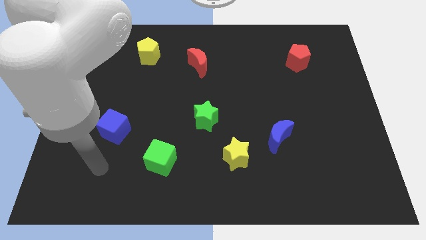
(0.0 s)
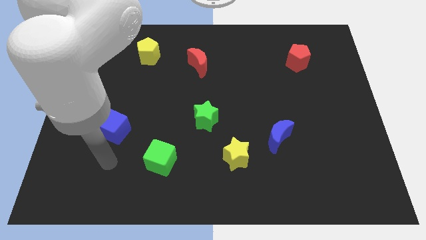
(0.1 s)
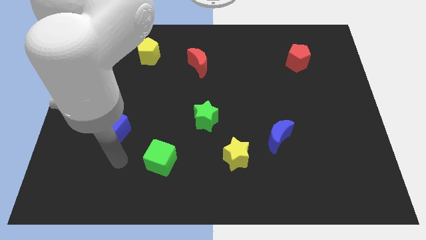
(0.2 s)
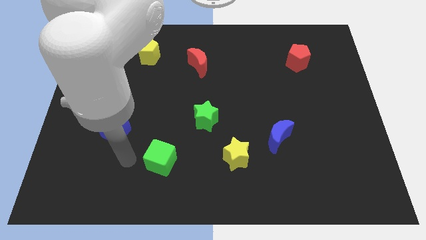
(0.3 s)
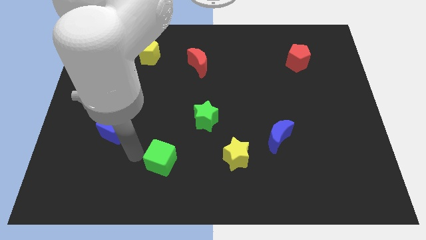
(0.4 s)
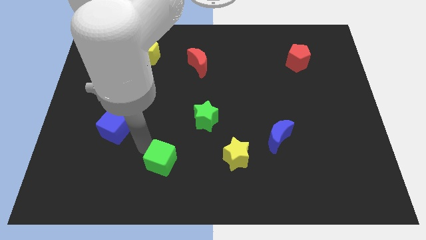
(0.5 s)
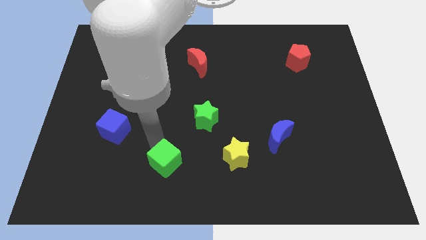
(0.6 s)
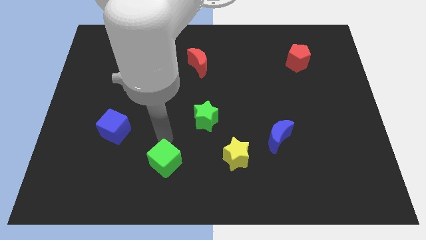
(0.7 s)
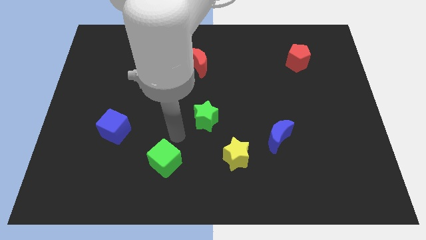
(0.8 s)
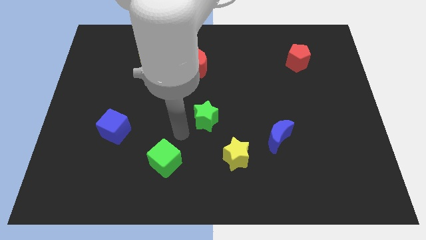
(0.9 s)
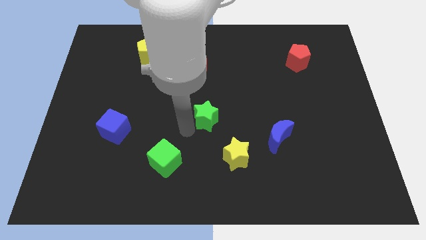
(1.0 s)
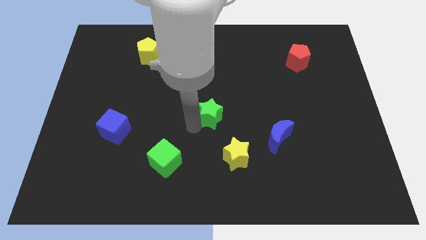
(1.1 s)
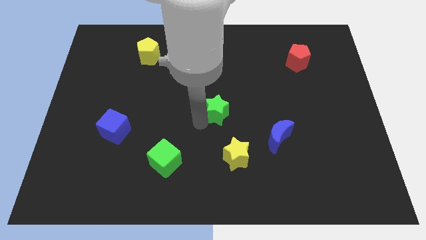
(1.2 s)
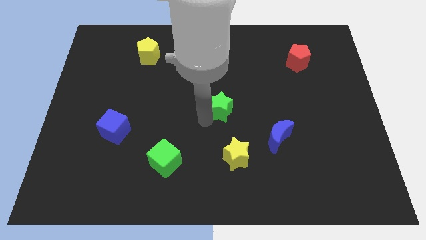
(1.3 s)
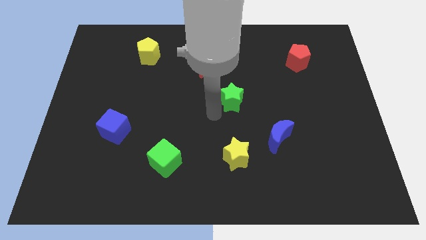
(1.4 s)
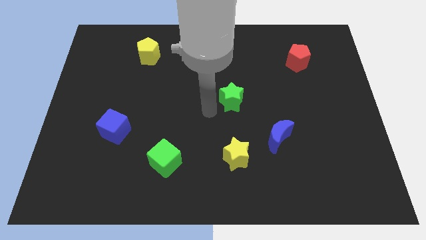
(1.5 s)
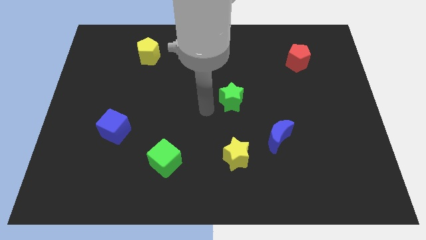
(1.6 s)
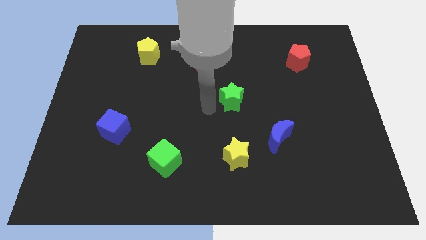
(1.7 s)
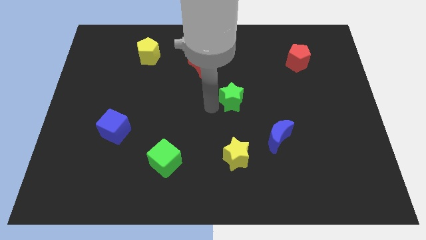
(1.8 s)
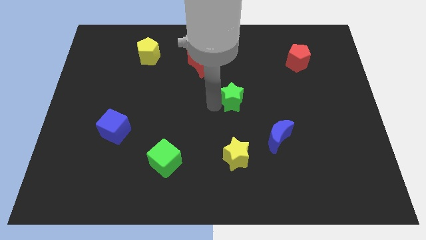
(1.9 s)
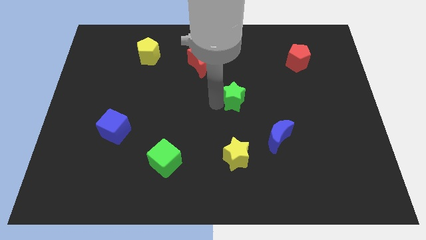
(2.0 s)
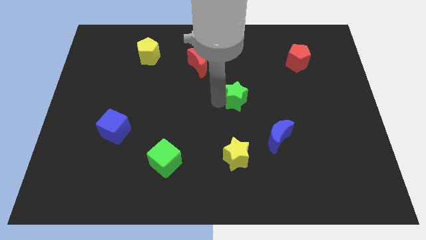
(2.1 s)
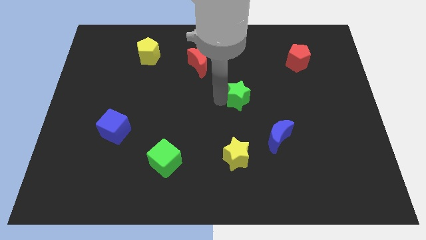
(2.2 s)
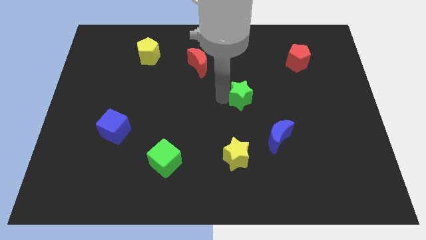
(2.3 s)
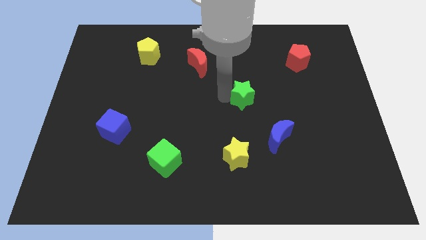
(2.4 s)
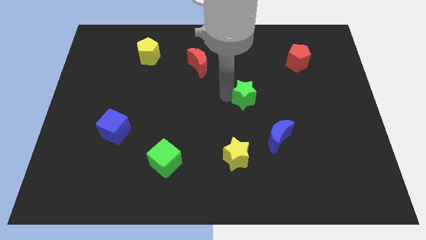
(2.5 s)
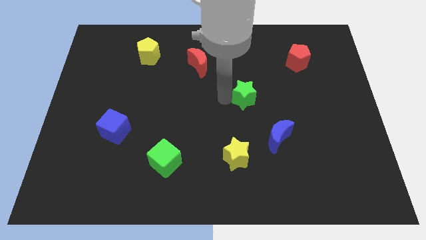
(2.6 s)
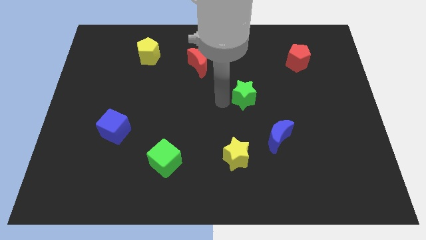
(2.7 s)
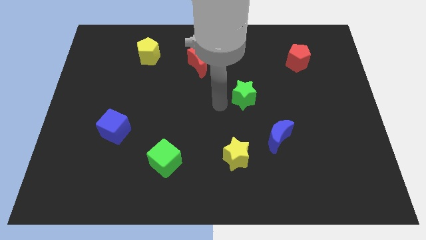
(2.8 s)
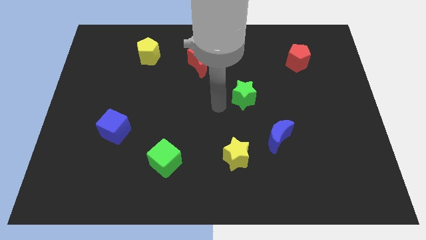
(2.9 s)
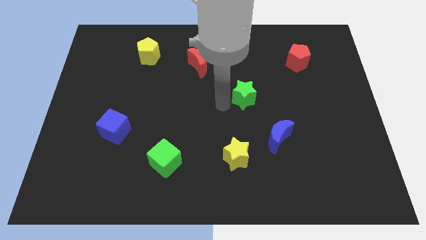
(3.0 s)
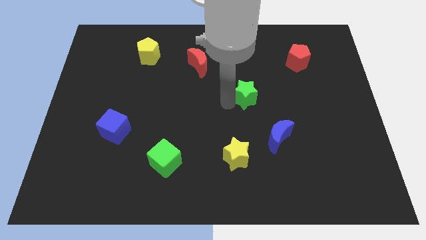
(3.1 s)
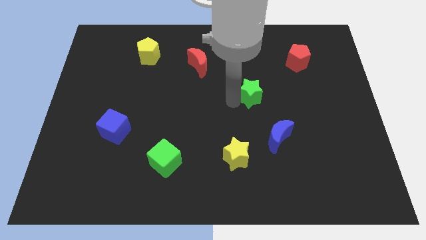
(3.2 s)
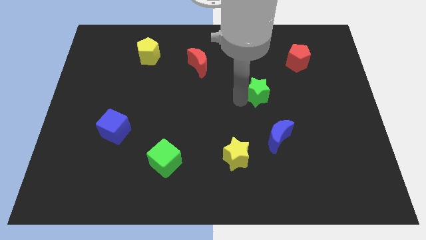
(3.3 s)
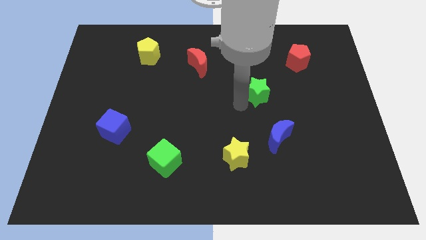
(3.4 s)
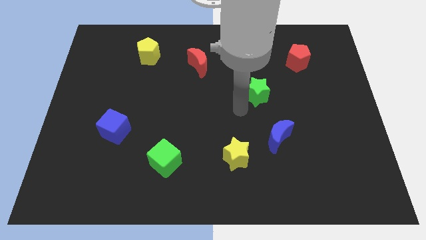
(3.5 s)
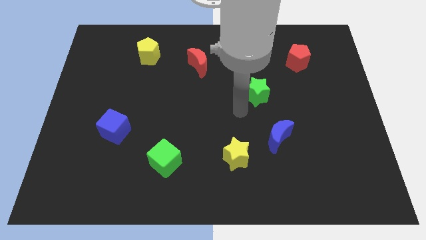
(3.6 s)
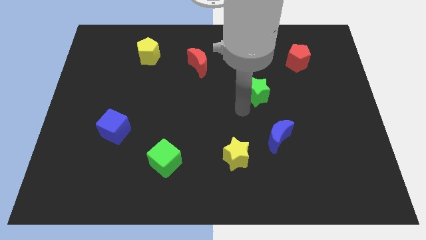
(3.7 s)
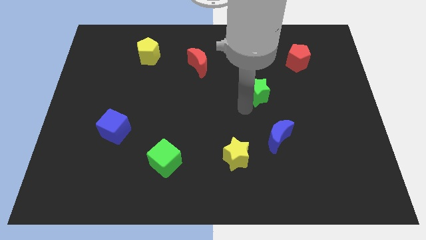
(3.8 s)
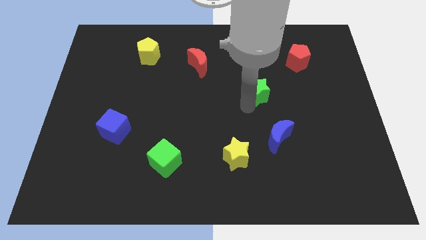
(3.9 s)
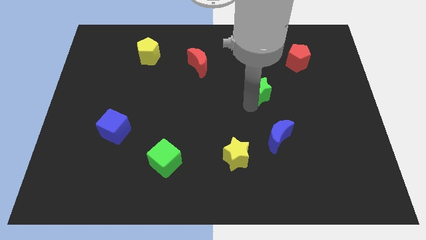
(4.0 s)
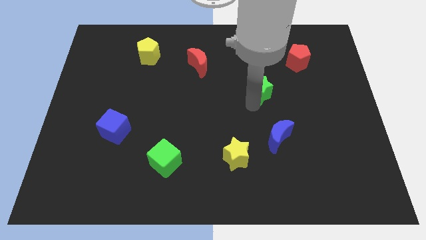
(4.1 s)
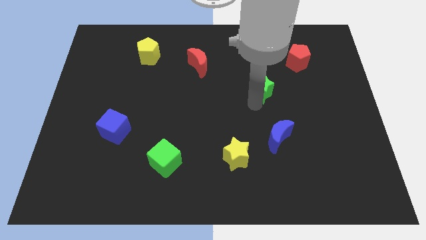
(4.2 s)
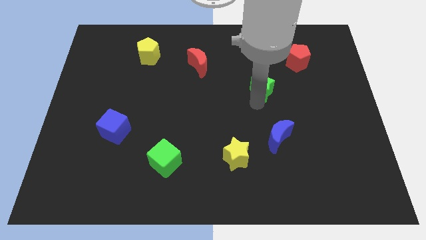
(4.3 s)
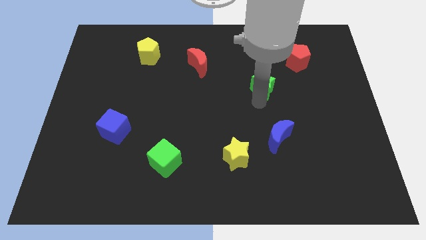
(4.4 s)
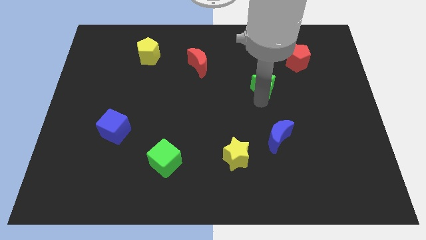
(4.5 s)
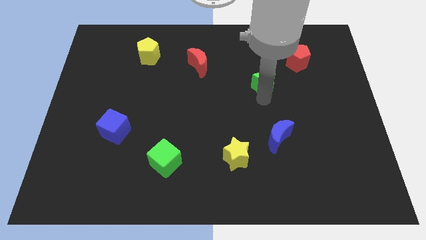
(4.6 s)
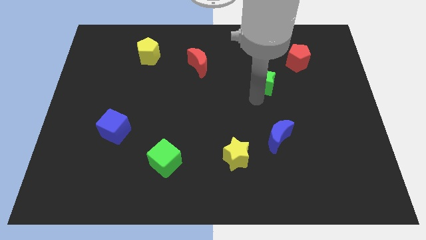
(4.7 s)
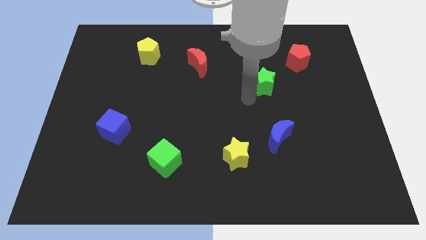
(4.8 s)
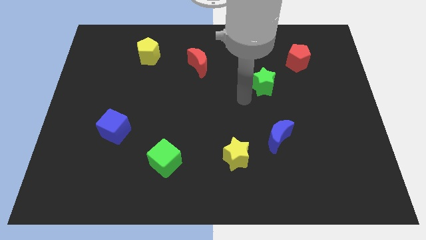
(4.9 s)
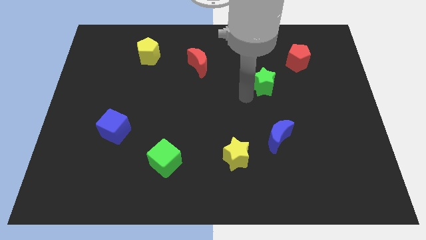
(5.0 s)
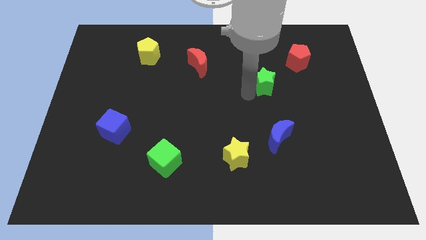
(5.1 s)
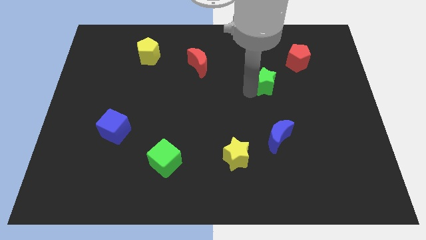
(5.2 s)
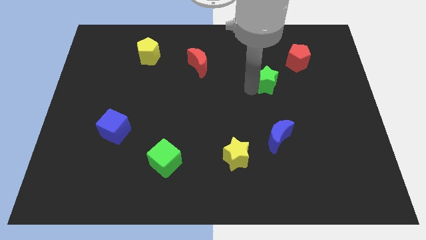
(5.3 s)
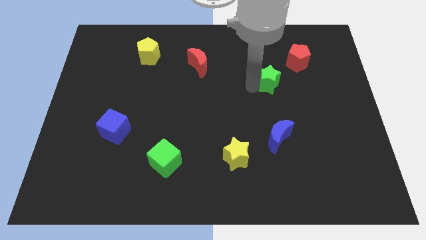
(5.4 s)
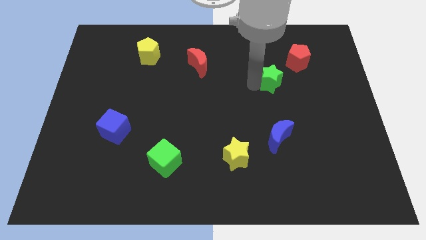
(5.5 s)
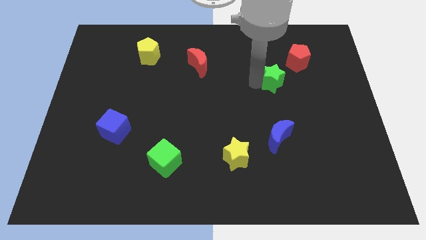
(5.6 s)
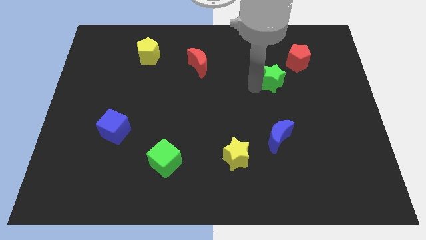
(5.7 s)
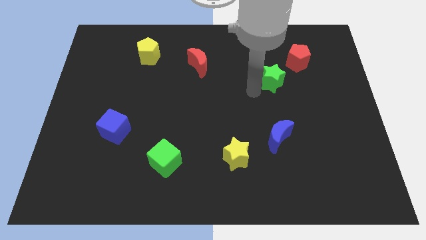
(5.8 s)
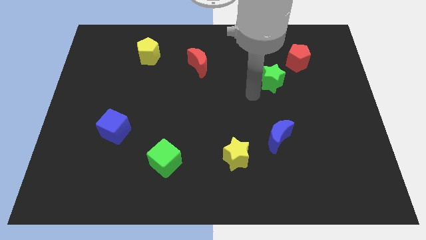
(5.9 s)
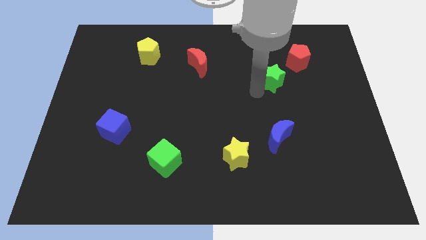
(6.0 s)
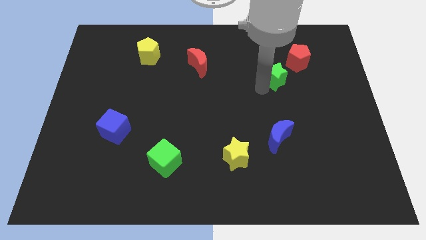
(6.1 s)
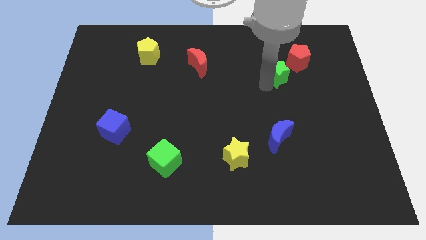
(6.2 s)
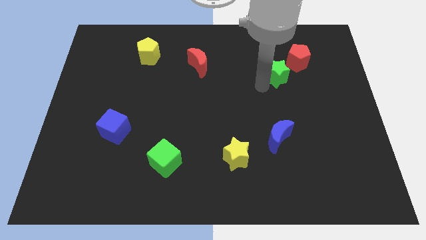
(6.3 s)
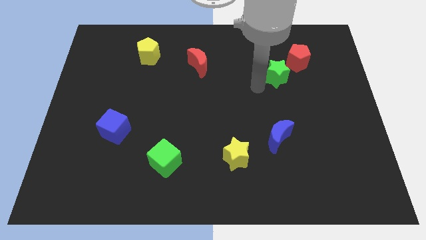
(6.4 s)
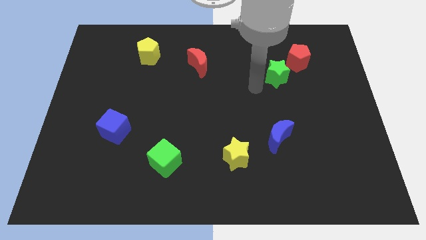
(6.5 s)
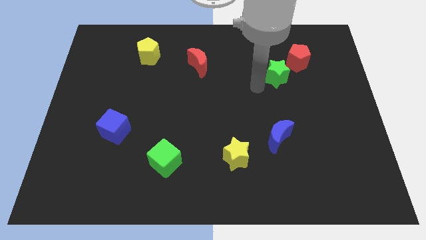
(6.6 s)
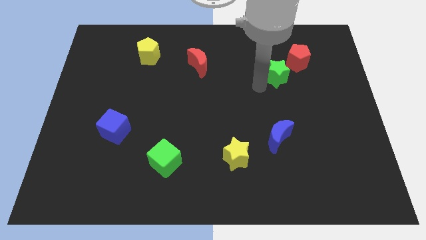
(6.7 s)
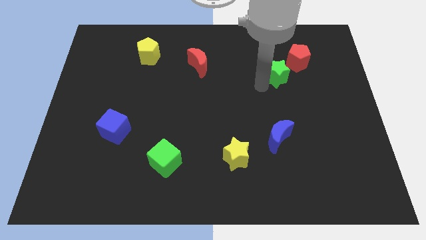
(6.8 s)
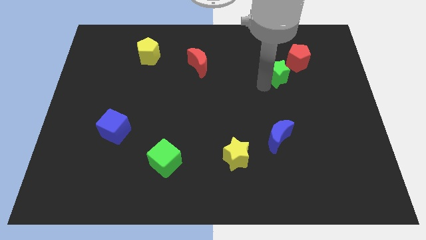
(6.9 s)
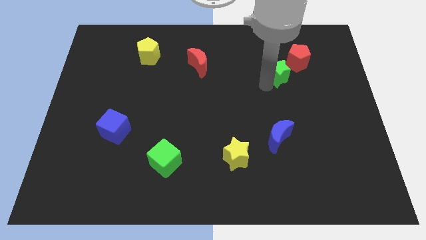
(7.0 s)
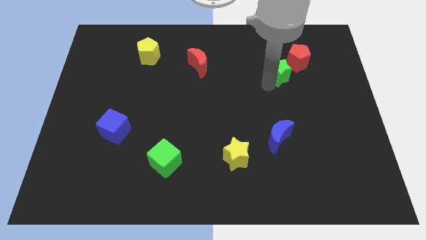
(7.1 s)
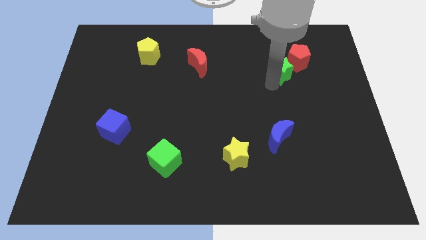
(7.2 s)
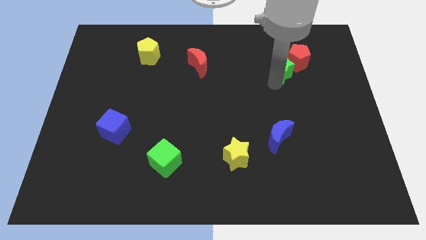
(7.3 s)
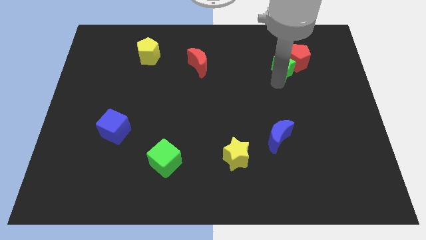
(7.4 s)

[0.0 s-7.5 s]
push the green star close to the red pentagon

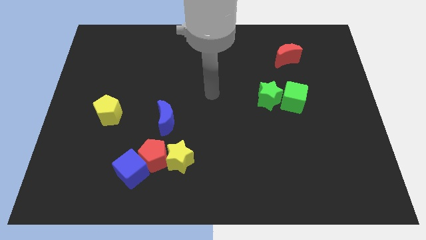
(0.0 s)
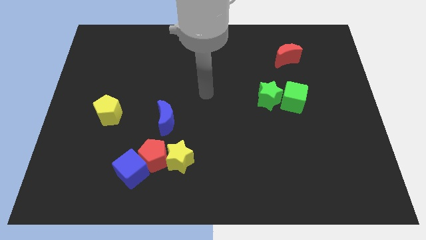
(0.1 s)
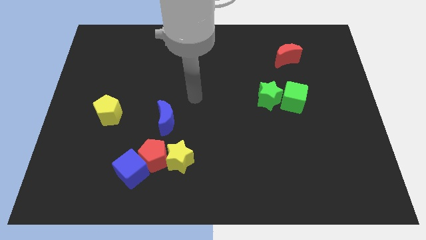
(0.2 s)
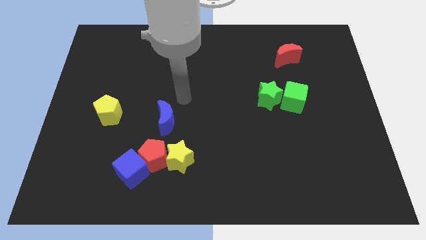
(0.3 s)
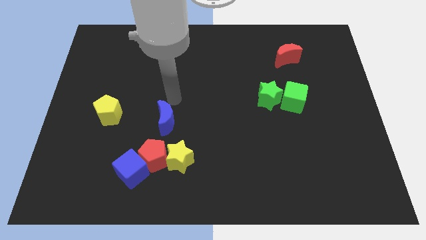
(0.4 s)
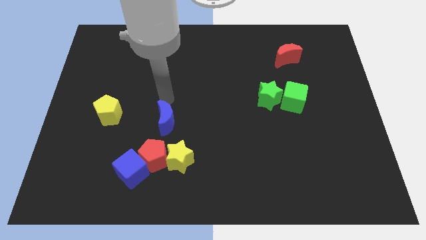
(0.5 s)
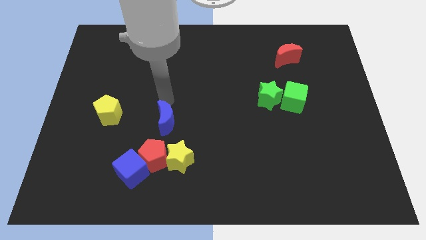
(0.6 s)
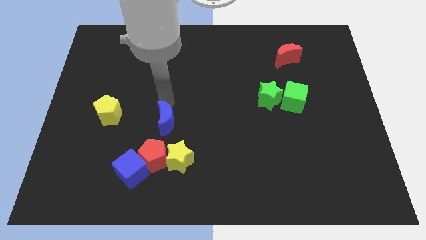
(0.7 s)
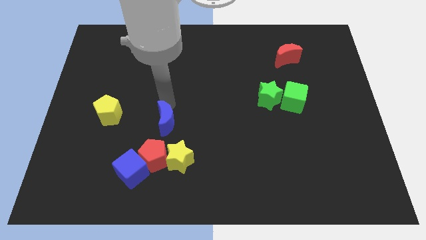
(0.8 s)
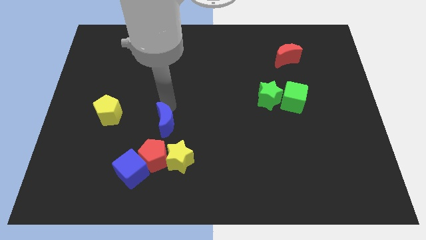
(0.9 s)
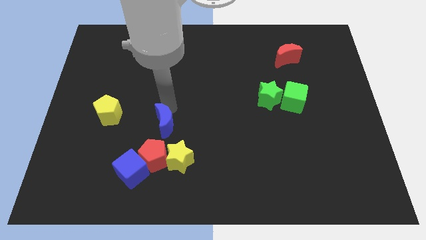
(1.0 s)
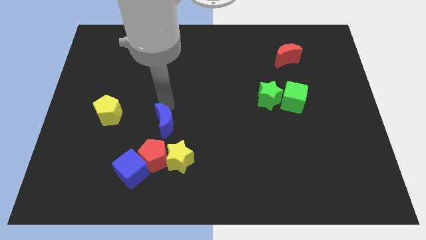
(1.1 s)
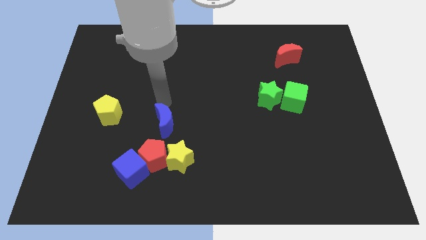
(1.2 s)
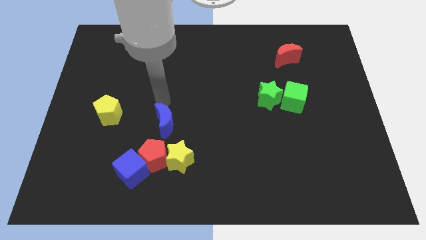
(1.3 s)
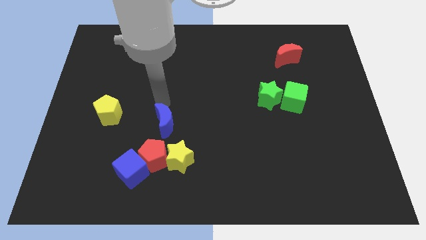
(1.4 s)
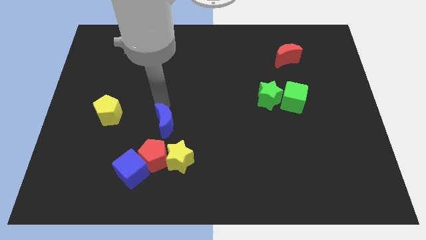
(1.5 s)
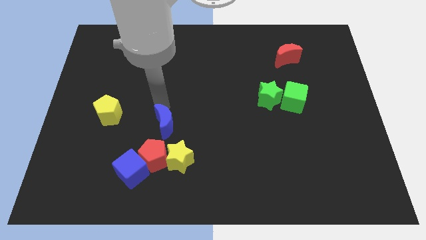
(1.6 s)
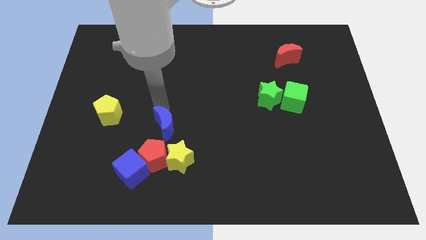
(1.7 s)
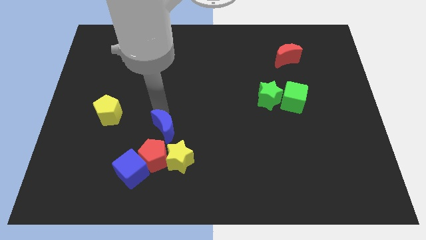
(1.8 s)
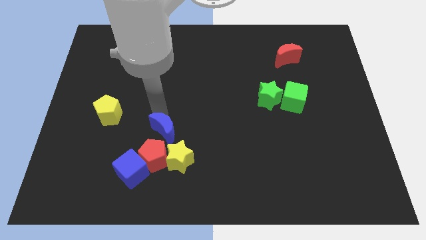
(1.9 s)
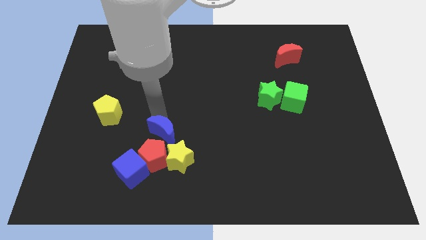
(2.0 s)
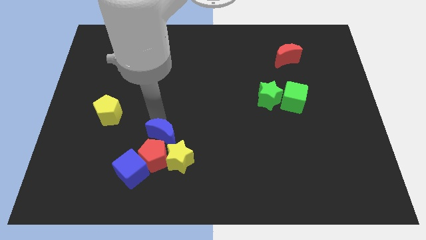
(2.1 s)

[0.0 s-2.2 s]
move the blue moon close to the red pentagon
